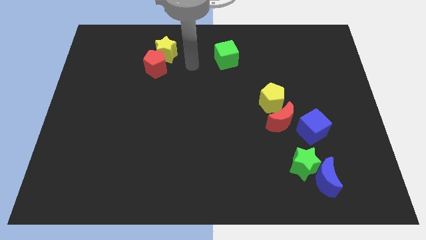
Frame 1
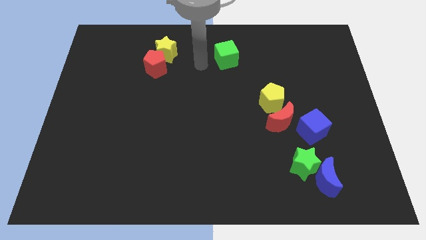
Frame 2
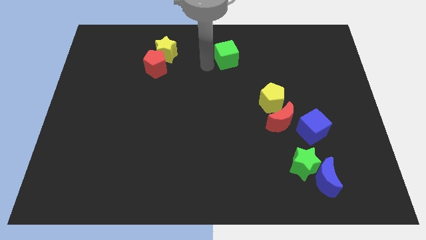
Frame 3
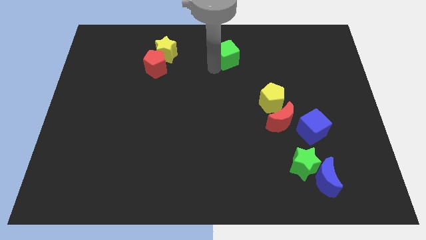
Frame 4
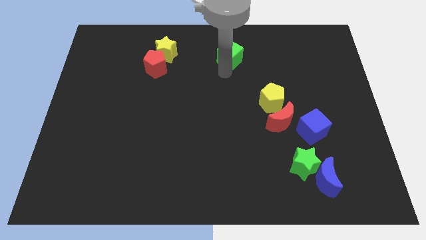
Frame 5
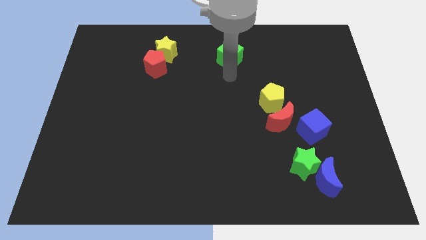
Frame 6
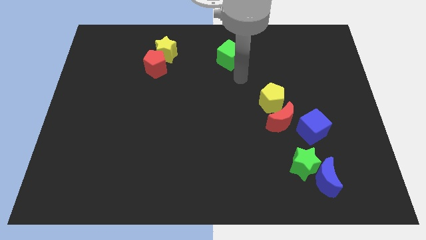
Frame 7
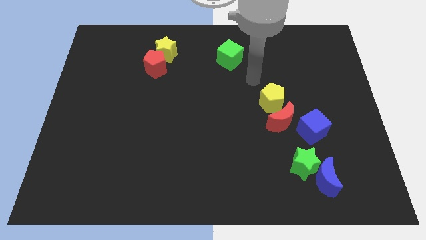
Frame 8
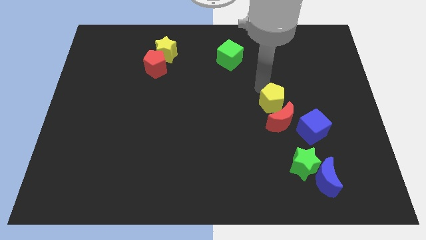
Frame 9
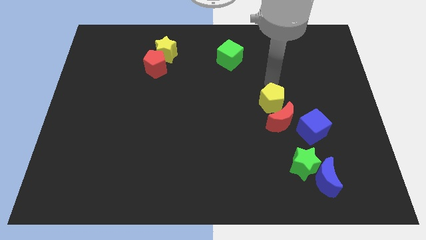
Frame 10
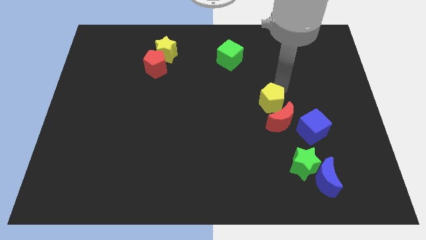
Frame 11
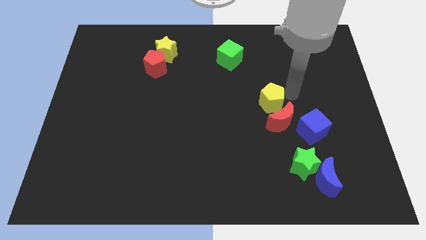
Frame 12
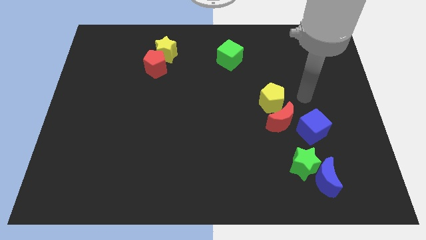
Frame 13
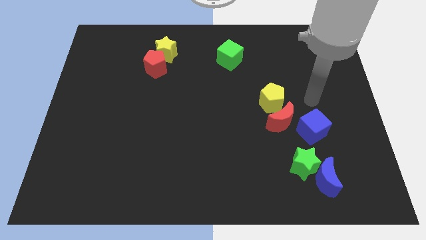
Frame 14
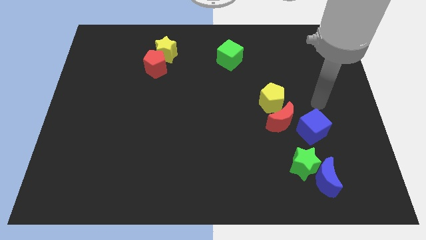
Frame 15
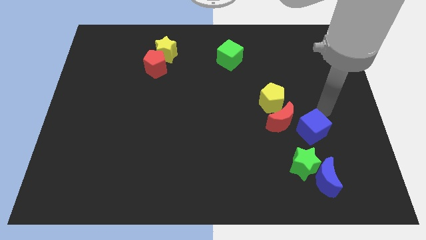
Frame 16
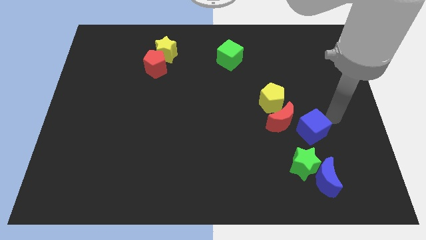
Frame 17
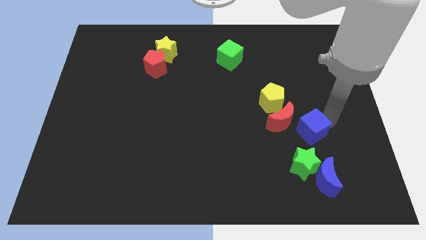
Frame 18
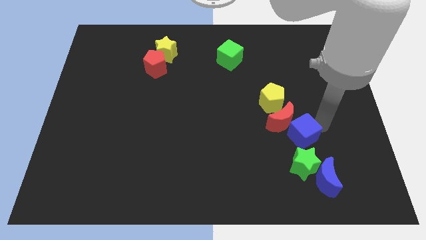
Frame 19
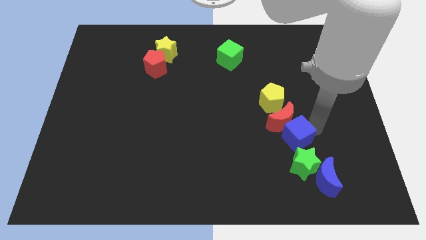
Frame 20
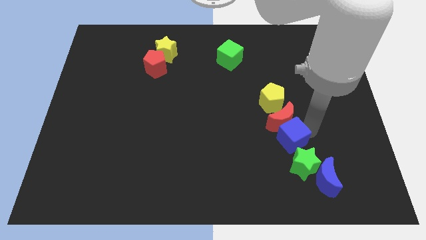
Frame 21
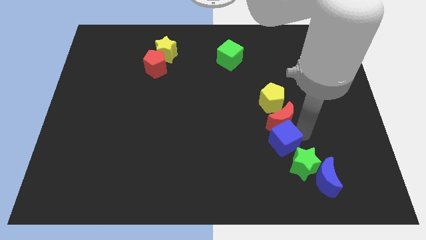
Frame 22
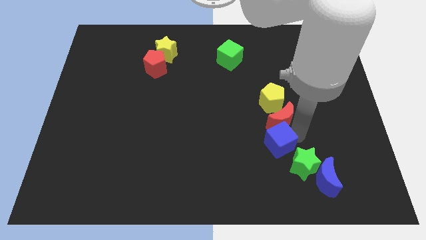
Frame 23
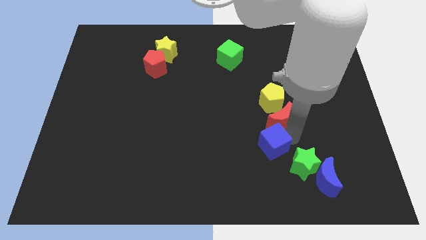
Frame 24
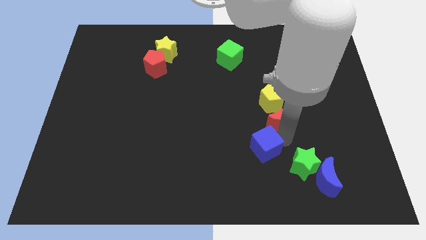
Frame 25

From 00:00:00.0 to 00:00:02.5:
move the blue cube just left of the green star

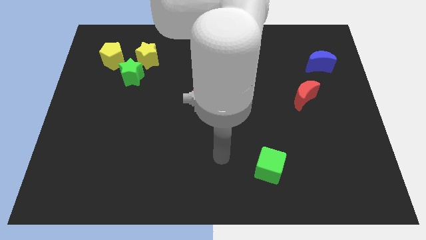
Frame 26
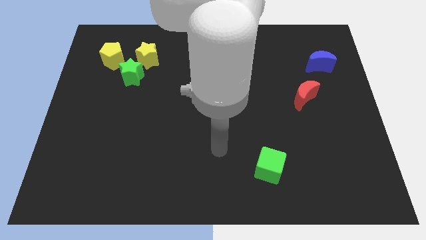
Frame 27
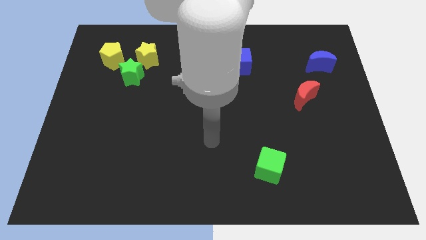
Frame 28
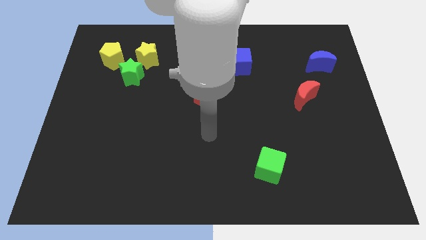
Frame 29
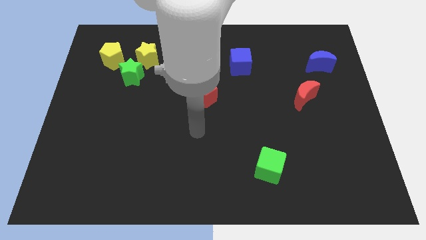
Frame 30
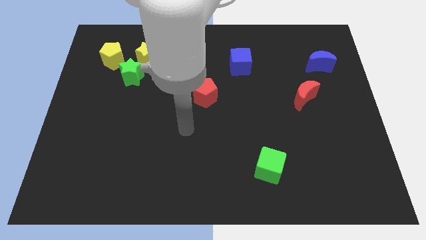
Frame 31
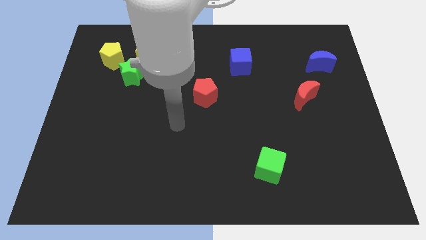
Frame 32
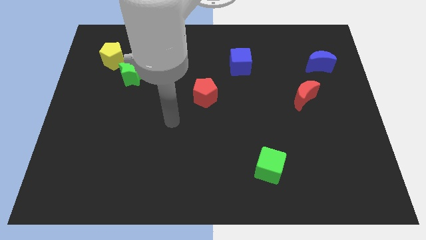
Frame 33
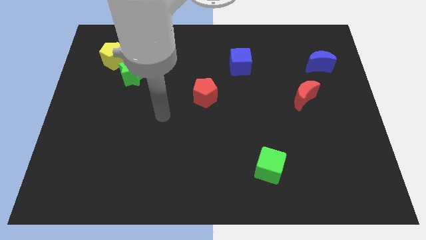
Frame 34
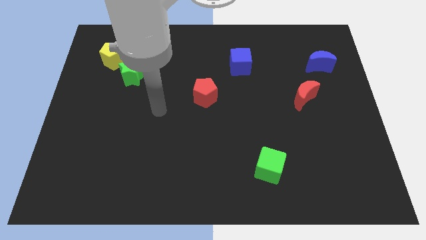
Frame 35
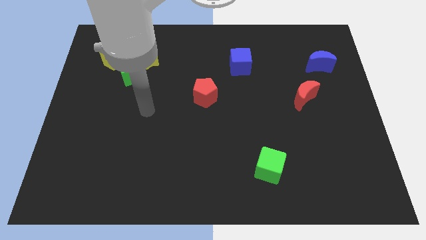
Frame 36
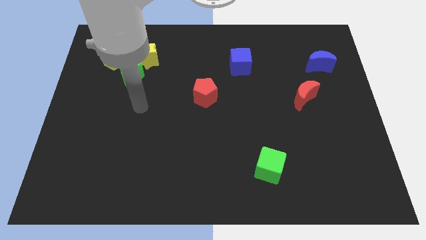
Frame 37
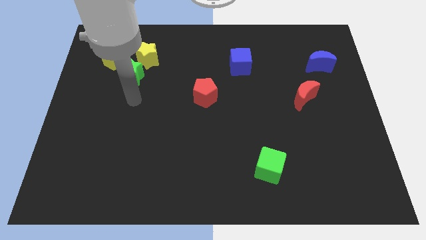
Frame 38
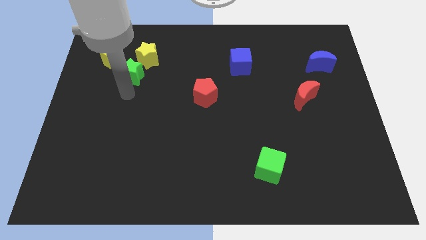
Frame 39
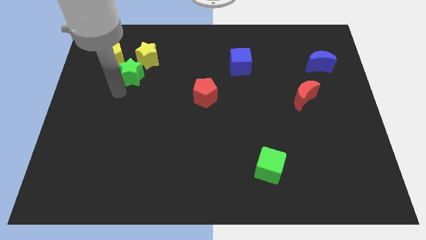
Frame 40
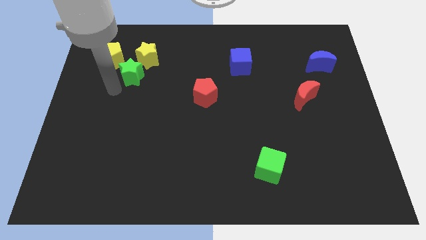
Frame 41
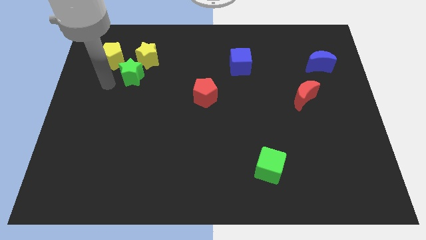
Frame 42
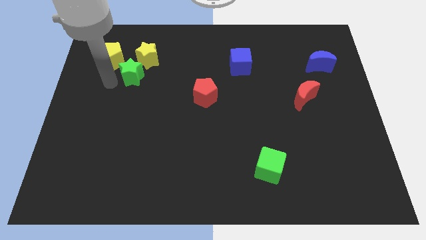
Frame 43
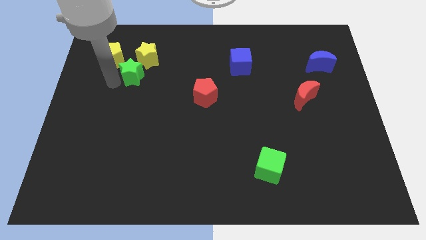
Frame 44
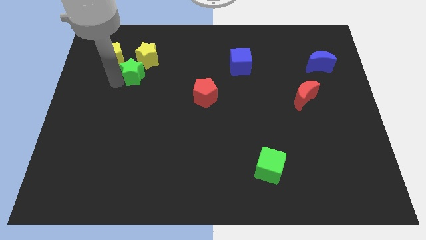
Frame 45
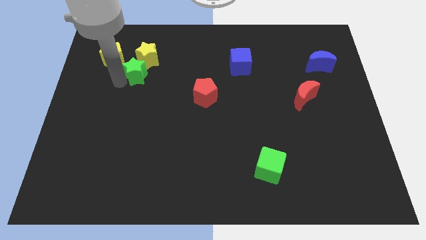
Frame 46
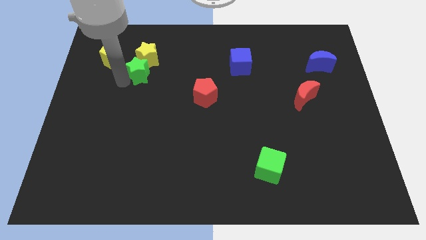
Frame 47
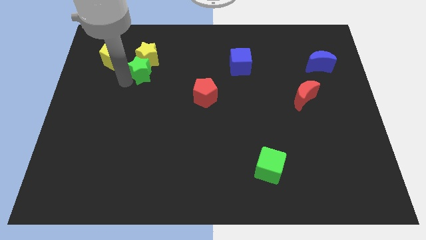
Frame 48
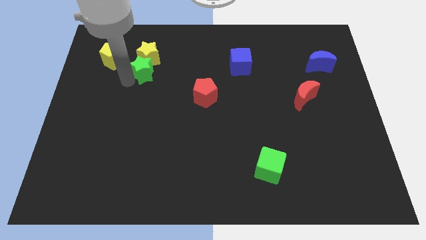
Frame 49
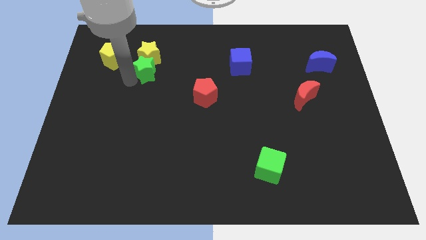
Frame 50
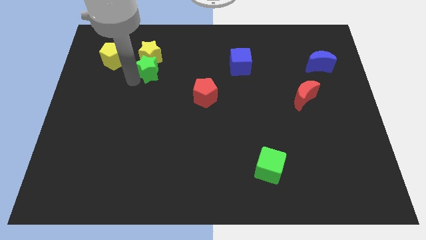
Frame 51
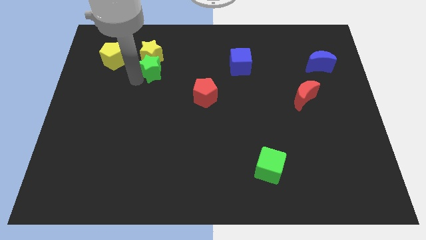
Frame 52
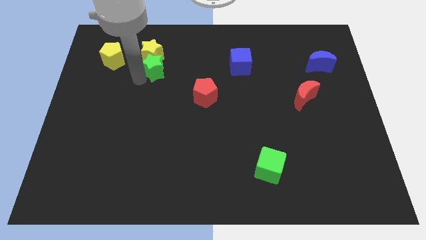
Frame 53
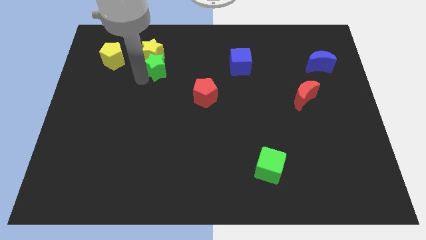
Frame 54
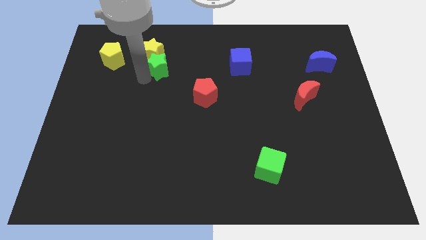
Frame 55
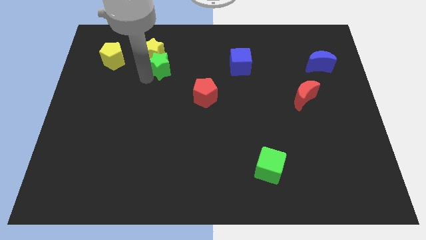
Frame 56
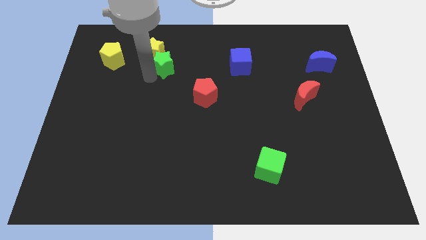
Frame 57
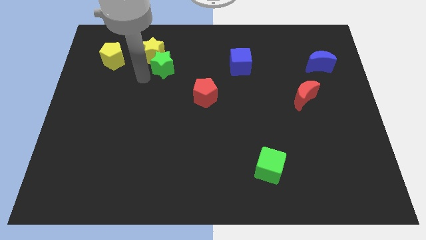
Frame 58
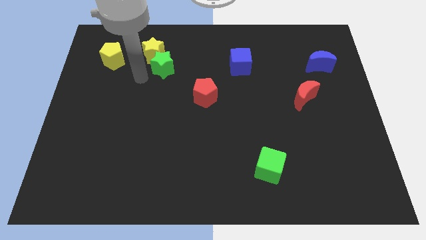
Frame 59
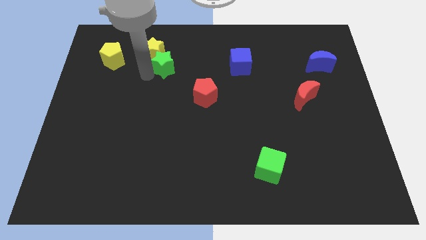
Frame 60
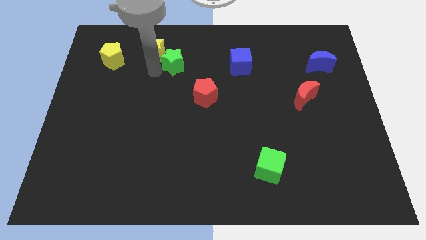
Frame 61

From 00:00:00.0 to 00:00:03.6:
move the green star just right of the yellow star

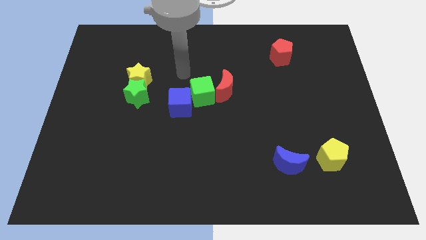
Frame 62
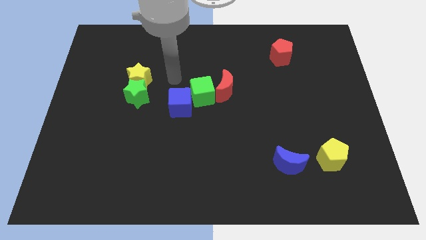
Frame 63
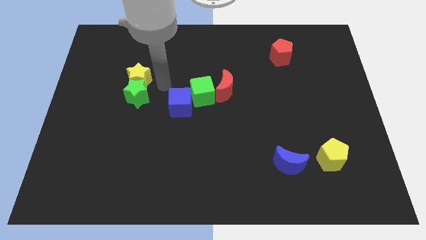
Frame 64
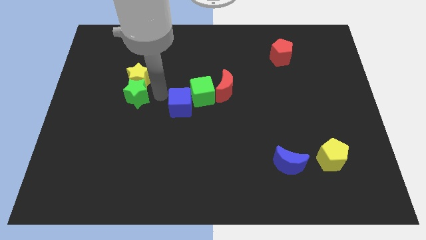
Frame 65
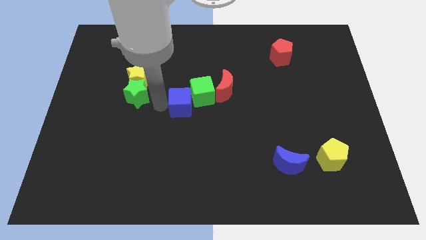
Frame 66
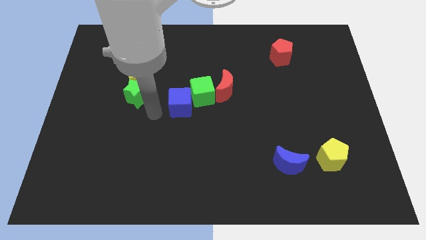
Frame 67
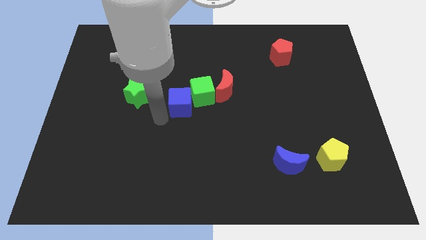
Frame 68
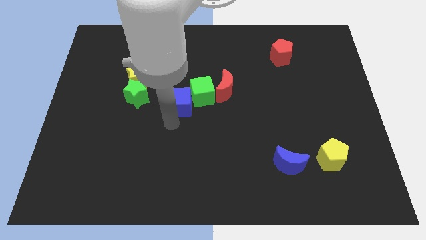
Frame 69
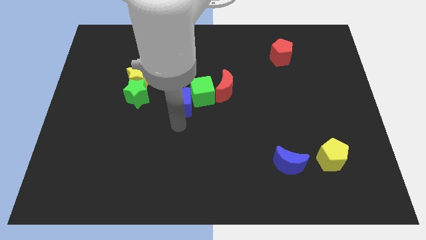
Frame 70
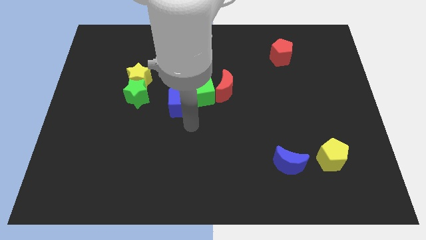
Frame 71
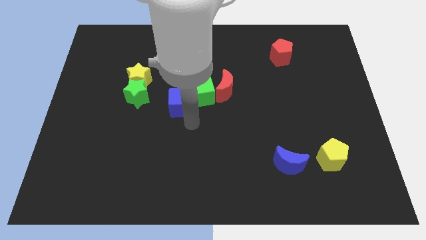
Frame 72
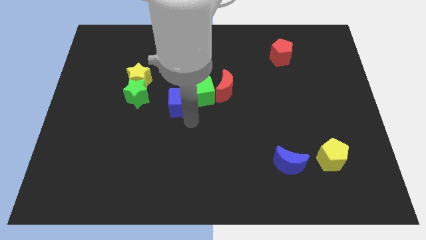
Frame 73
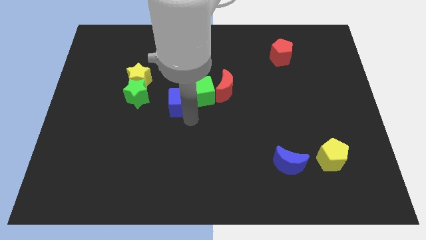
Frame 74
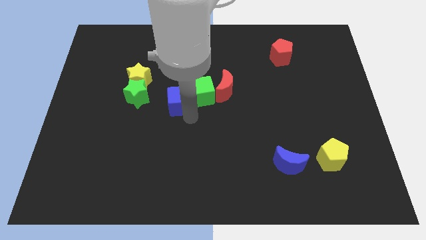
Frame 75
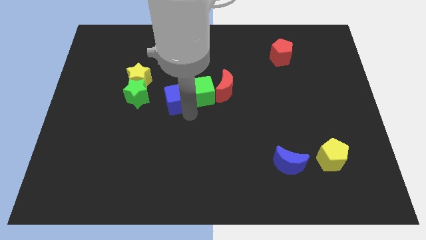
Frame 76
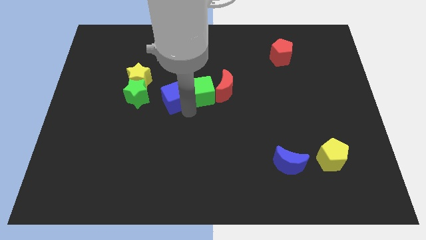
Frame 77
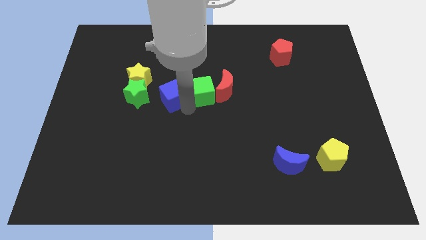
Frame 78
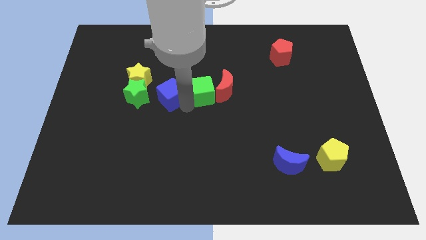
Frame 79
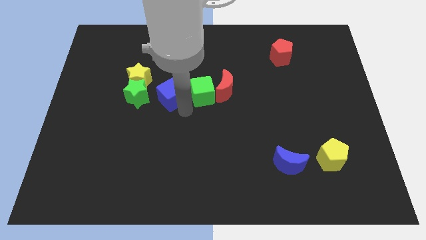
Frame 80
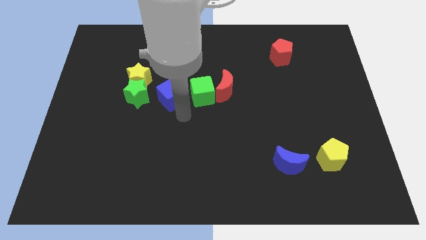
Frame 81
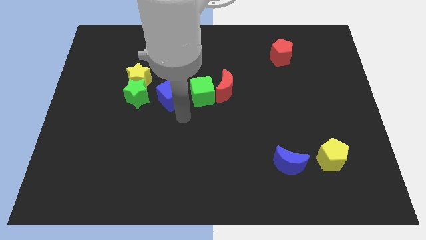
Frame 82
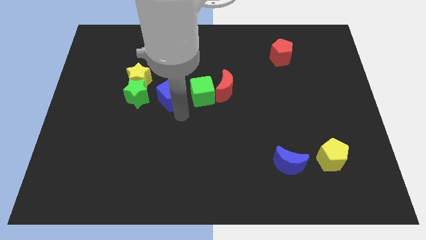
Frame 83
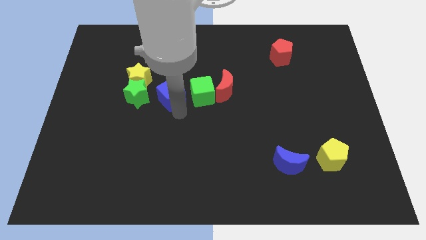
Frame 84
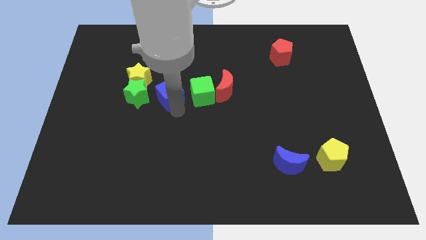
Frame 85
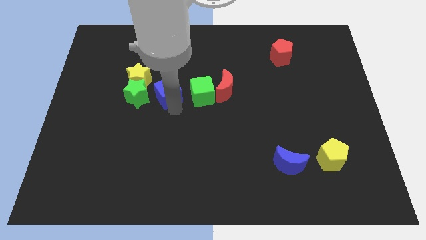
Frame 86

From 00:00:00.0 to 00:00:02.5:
put the blue cube to the top right side of the green star
